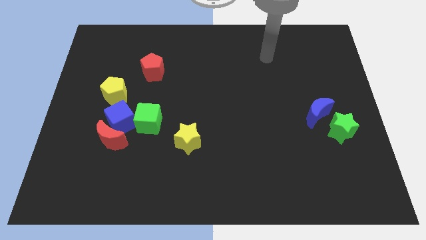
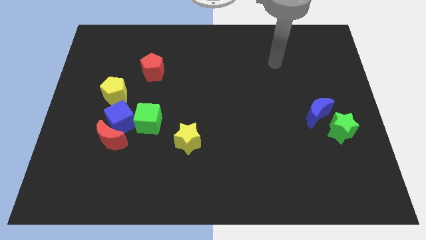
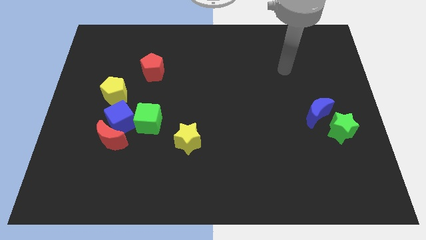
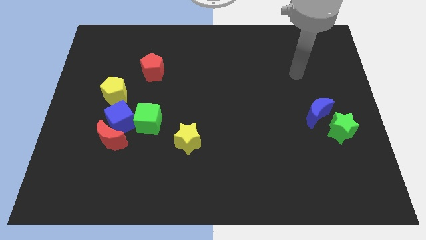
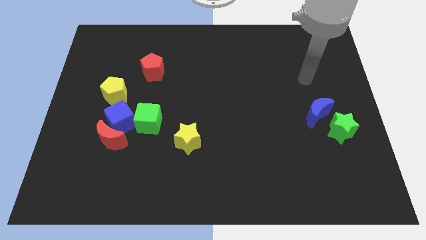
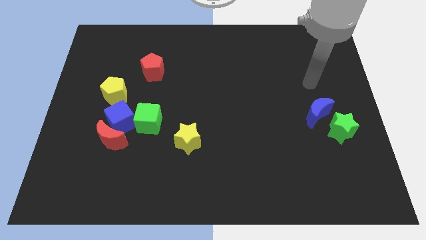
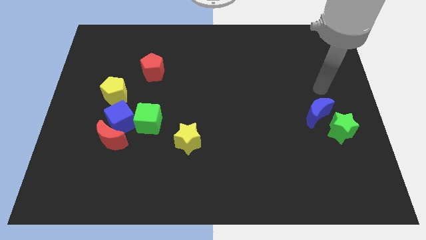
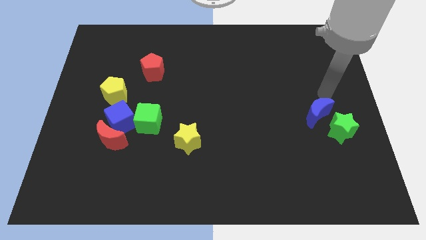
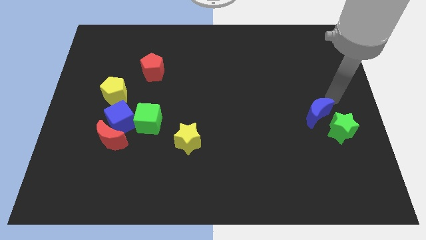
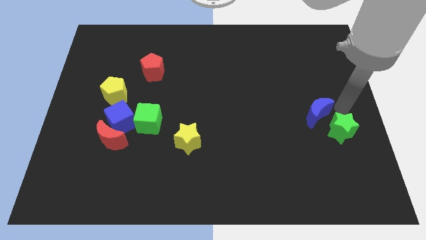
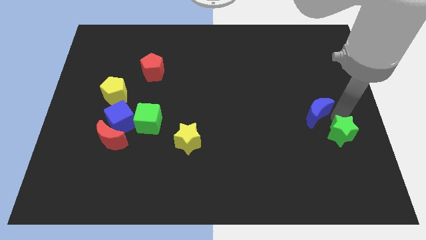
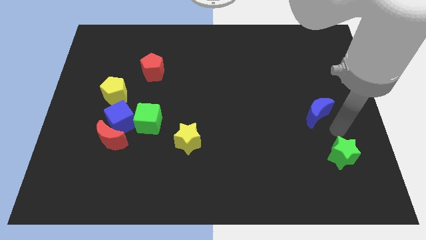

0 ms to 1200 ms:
move the blue moon away from the green star

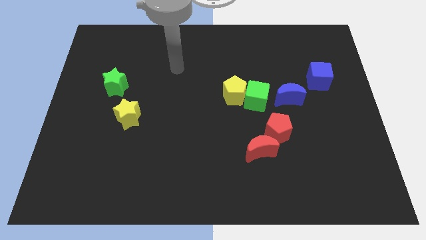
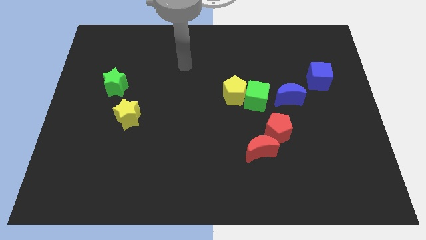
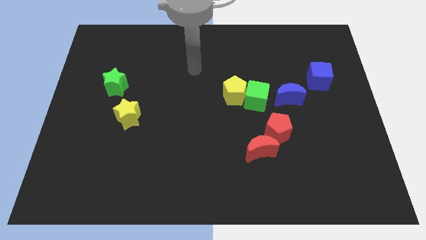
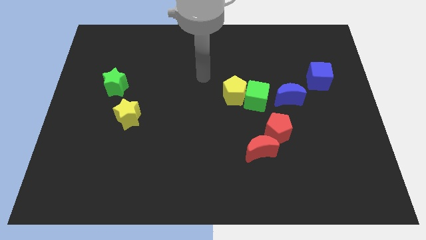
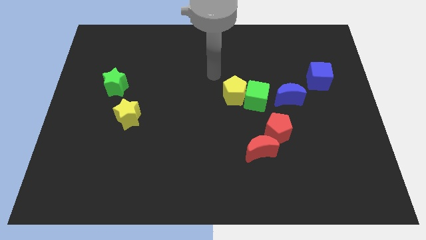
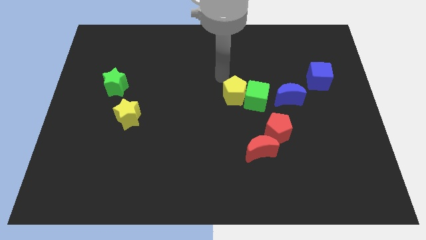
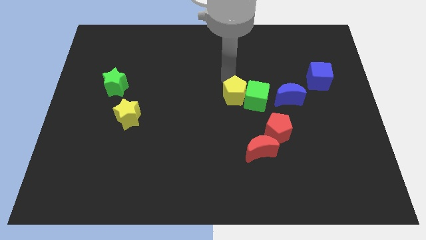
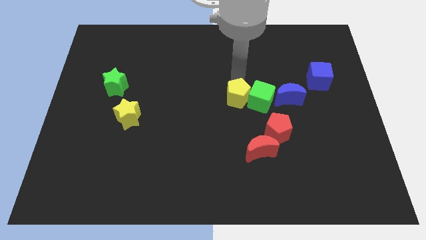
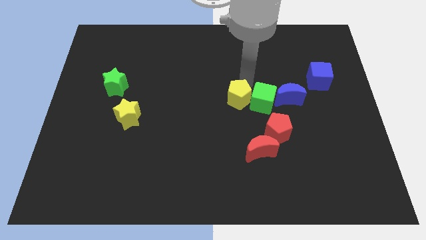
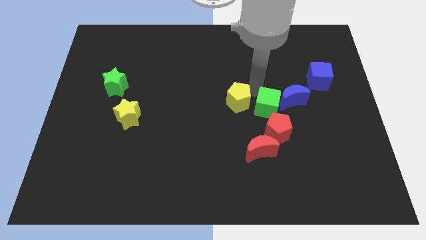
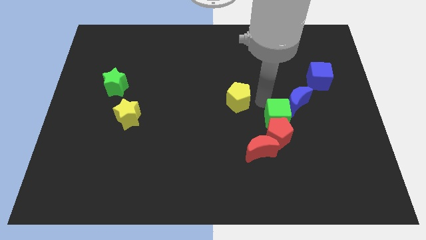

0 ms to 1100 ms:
separate the yellow pentagon from the green cube

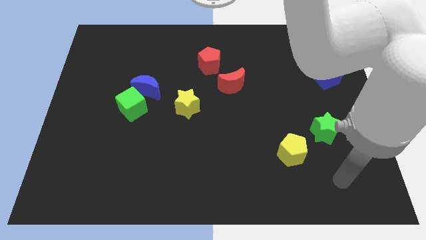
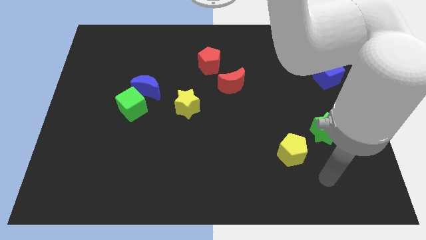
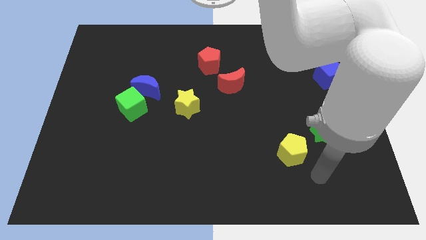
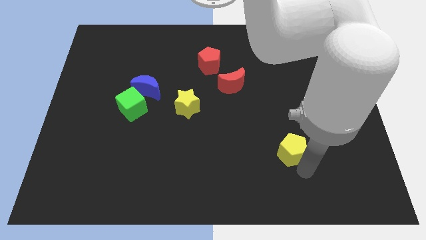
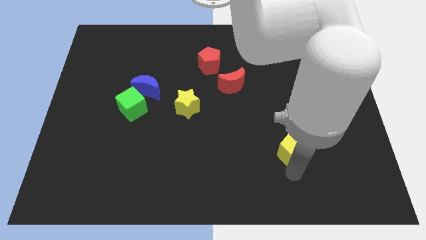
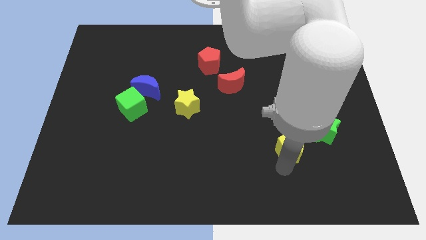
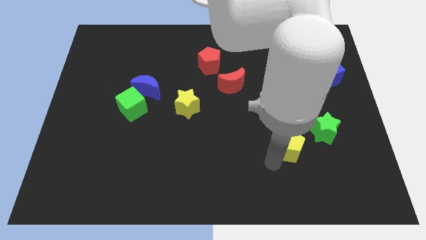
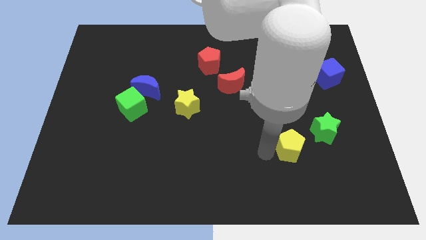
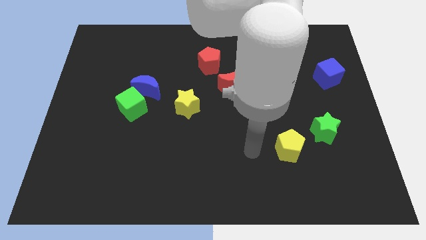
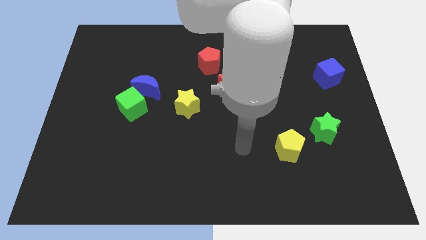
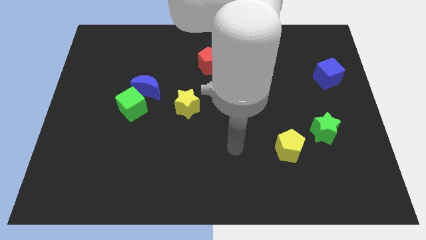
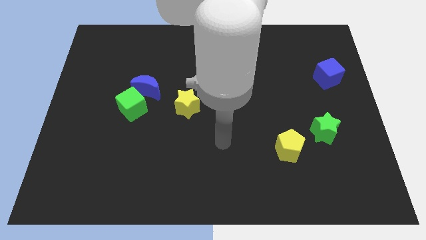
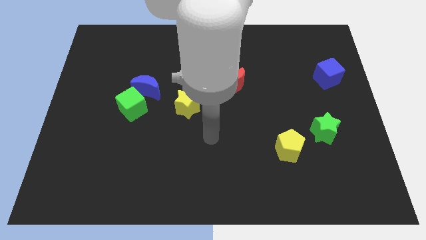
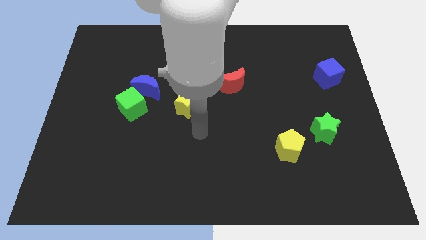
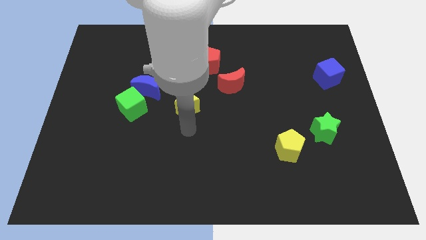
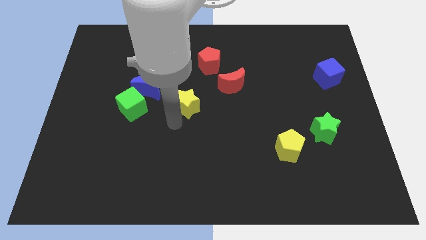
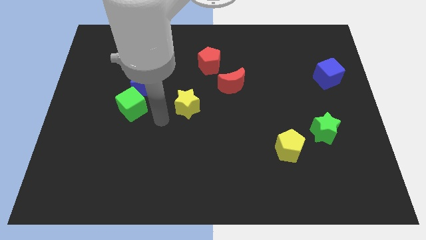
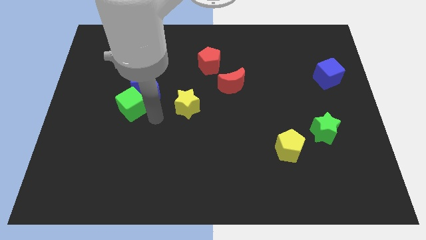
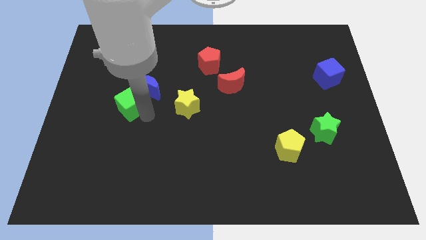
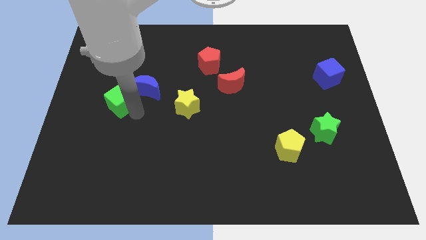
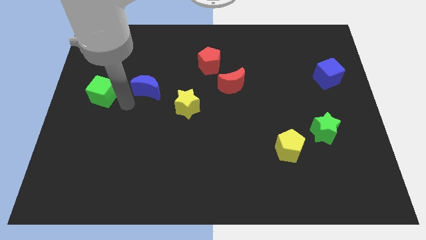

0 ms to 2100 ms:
pull the blue moon apart from the green cube

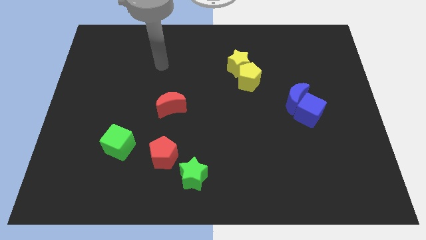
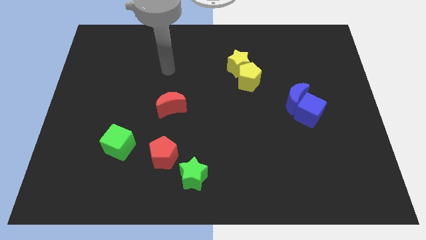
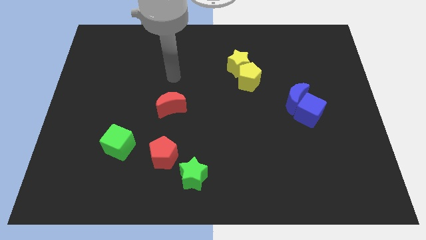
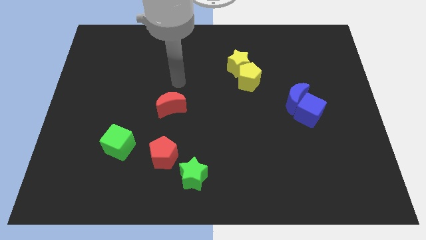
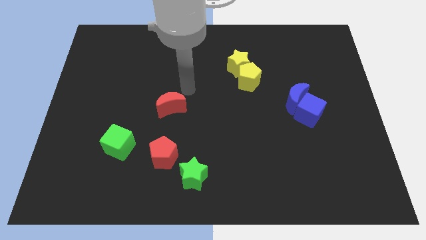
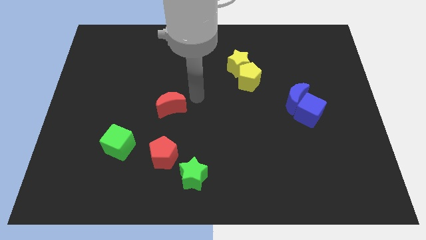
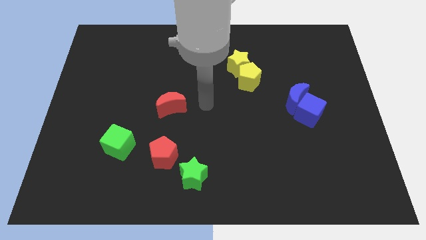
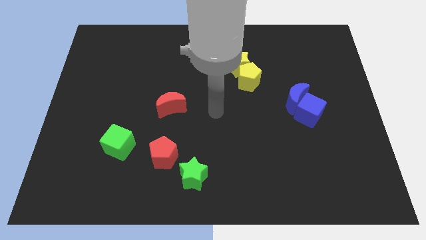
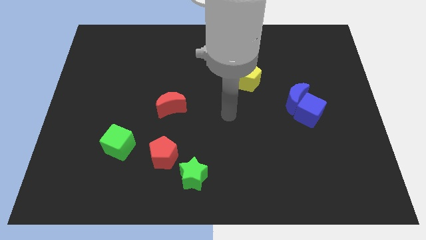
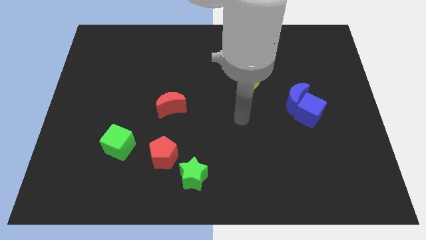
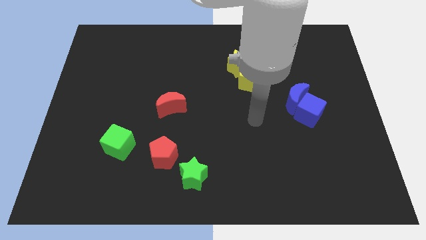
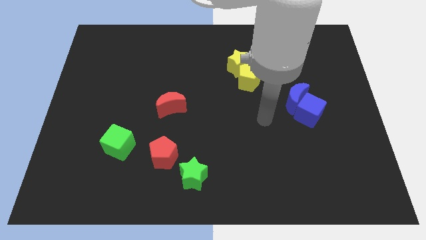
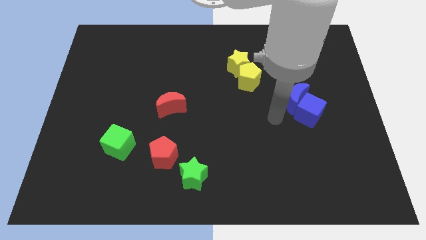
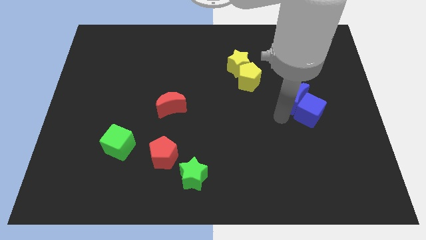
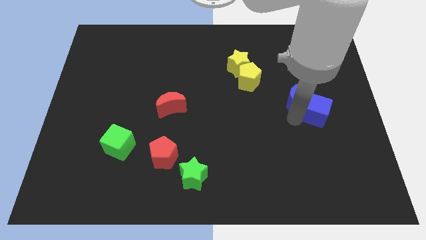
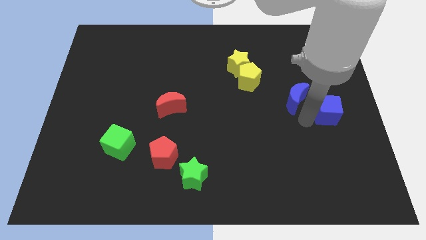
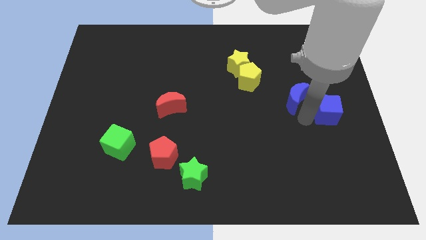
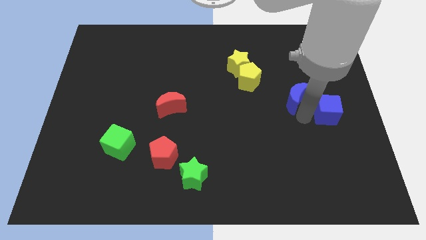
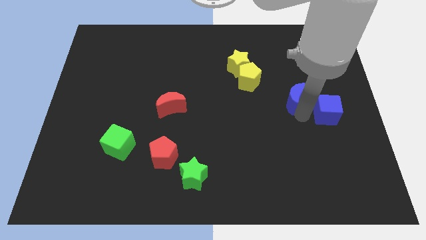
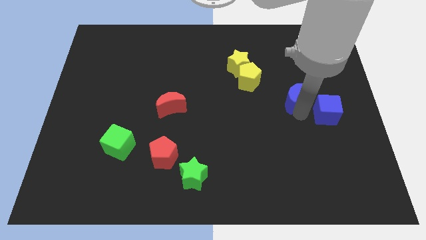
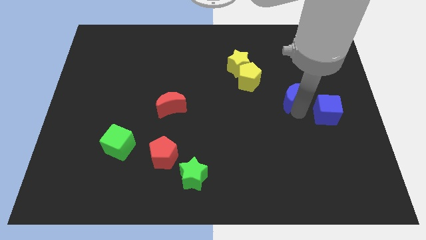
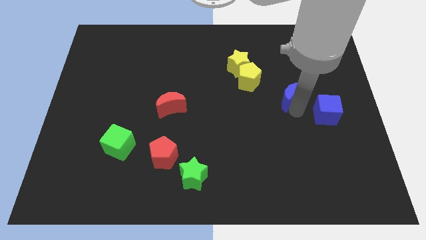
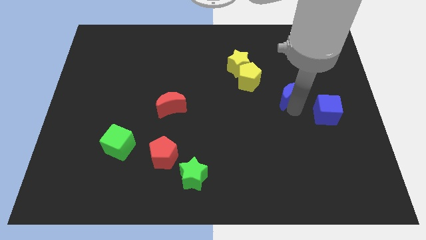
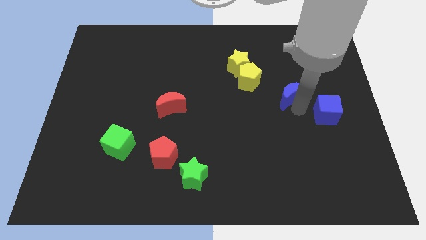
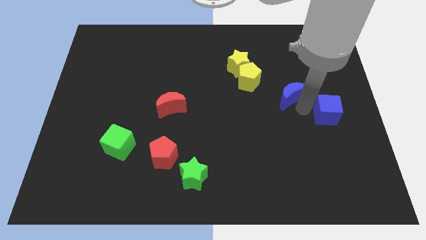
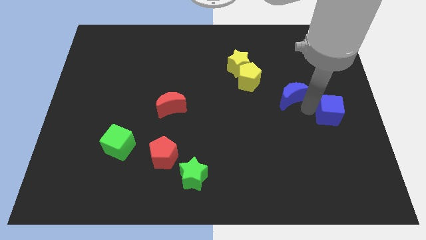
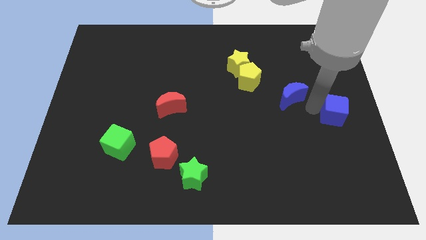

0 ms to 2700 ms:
pull the blue moon apart from the blue cube

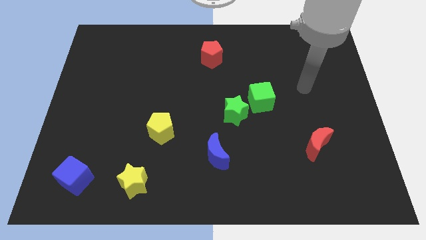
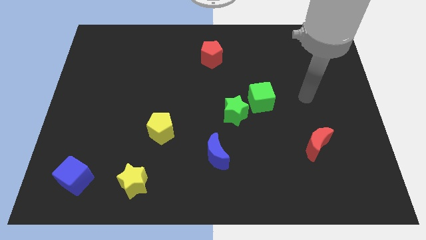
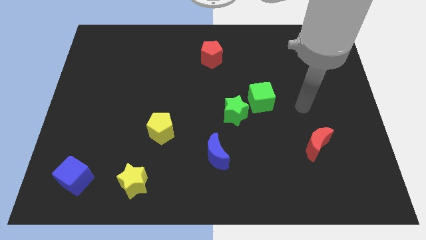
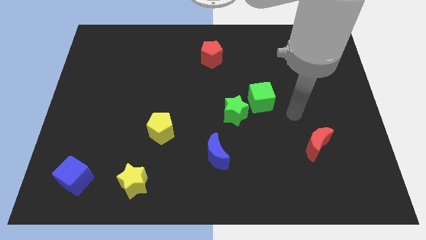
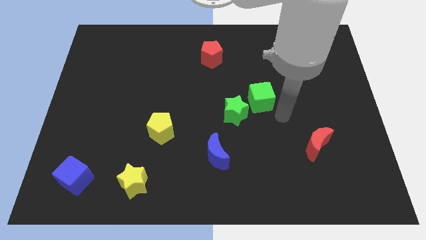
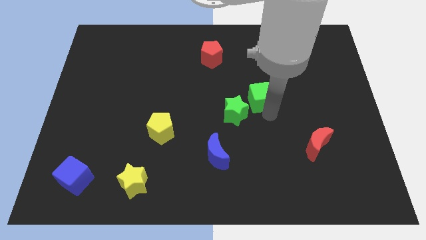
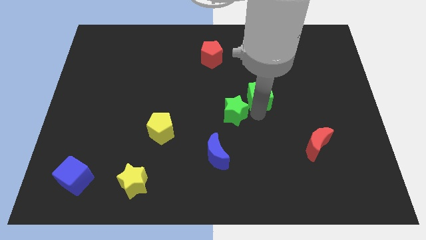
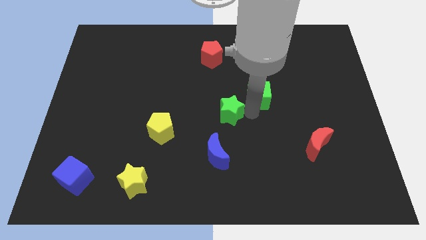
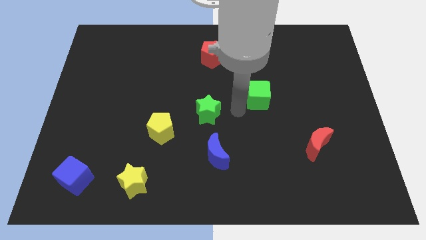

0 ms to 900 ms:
pull the green cube apart from the green star

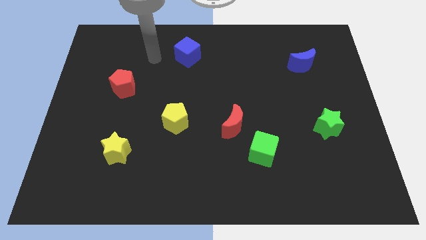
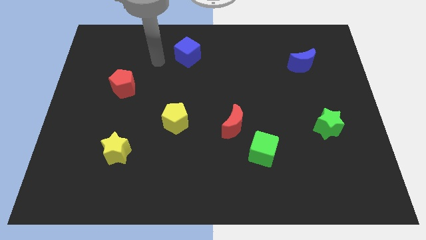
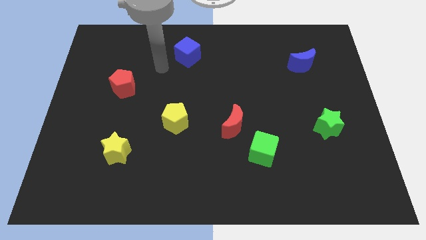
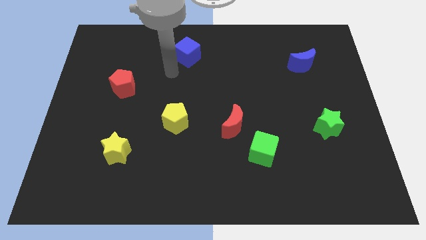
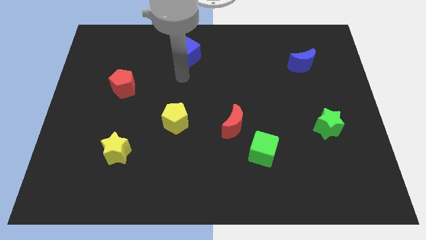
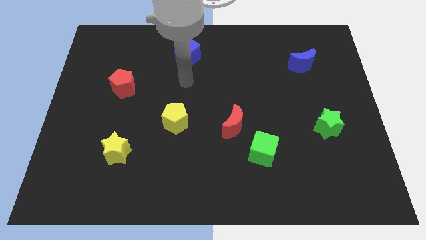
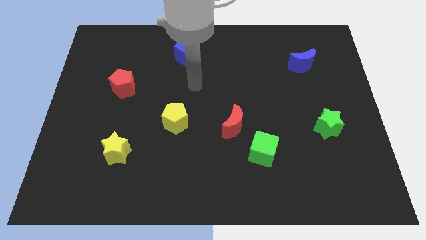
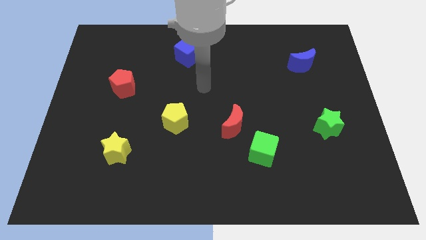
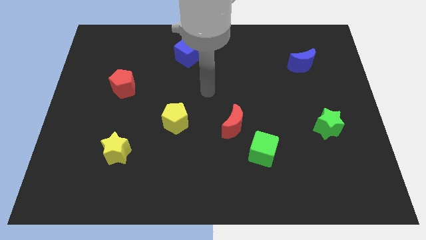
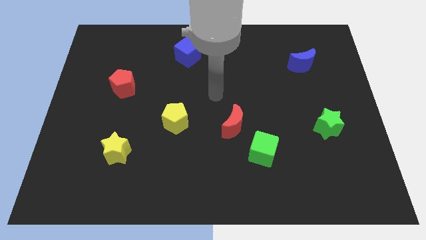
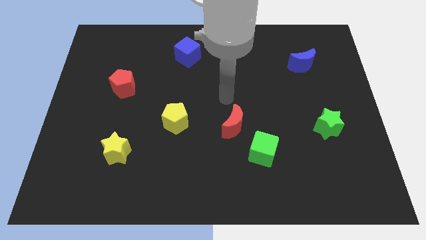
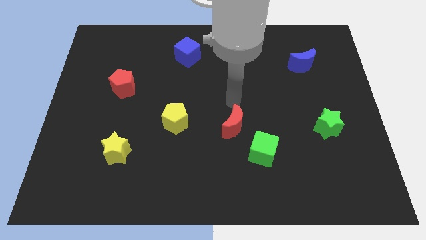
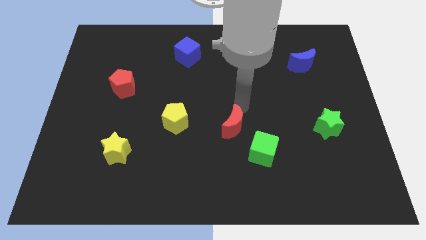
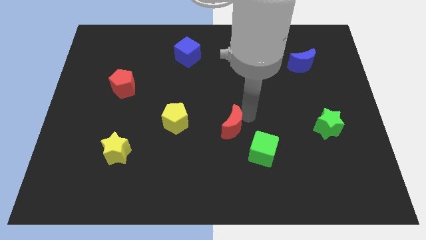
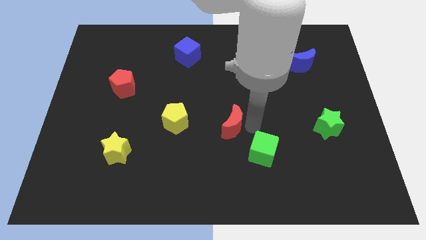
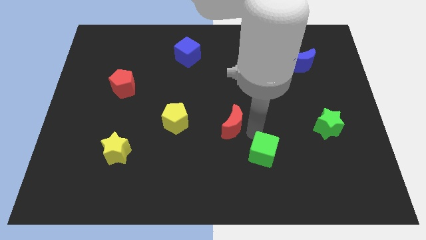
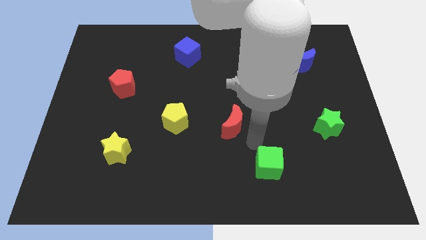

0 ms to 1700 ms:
pull the red moon apart from the green cube
